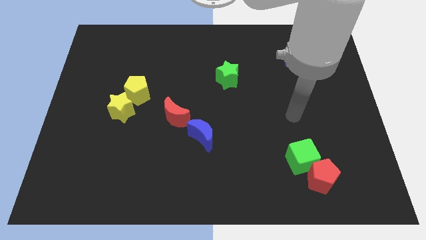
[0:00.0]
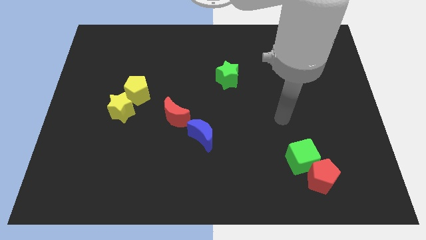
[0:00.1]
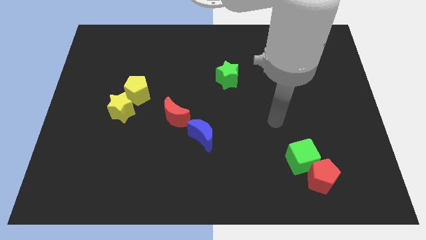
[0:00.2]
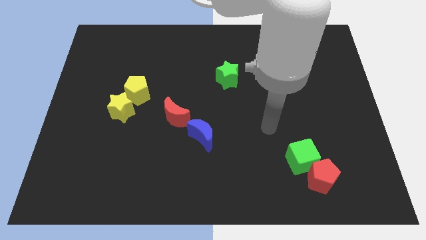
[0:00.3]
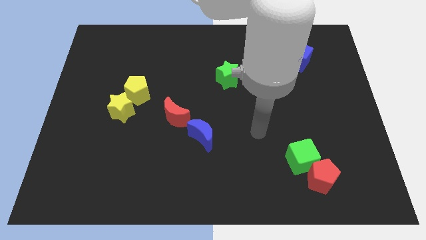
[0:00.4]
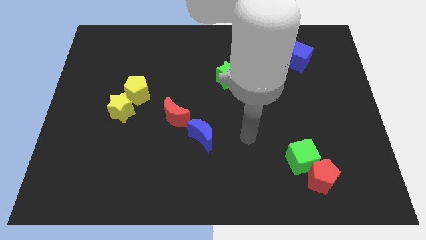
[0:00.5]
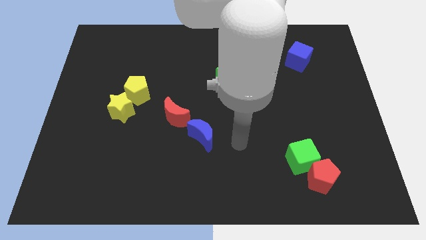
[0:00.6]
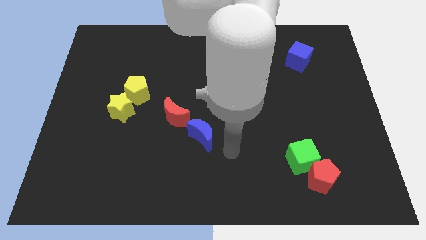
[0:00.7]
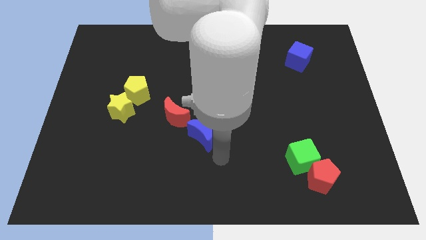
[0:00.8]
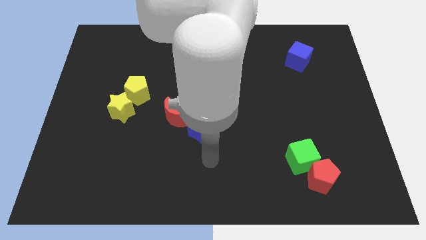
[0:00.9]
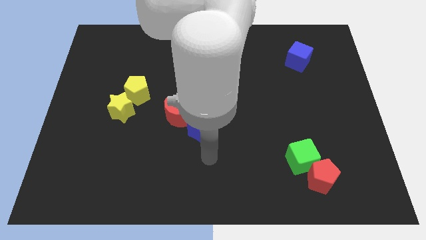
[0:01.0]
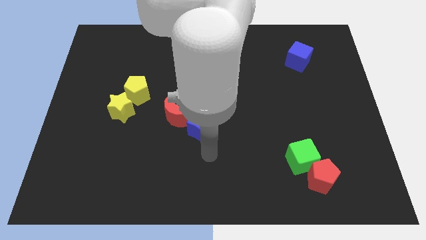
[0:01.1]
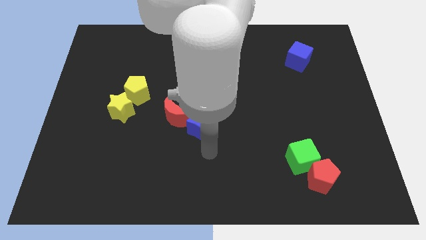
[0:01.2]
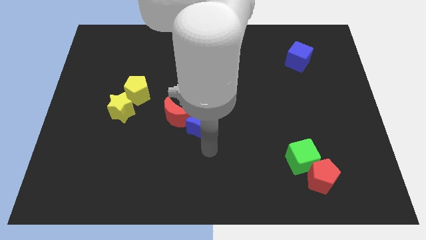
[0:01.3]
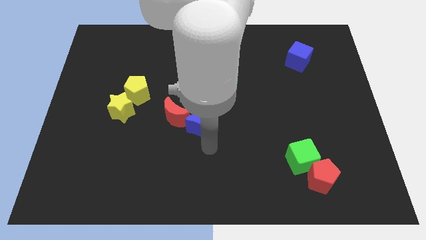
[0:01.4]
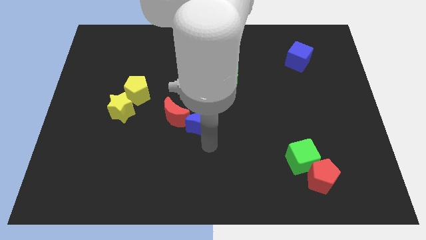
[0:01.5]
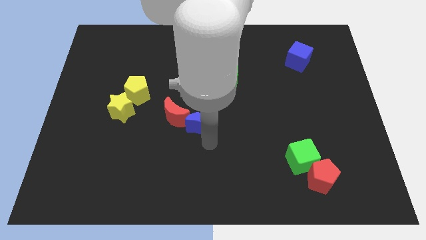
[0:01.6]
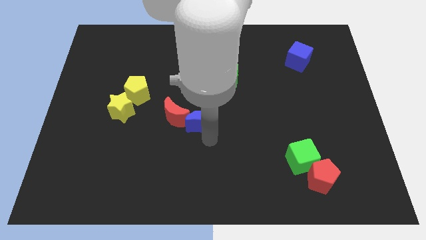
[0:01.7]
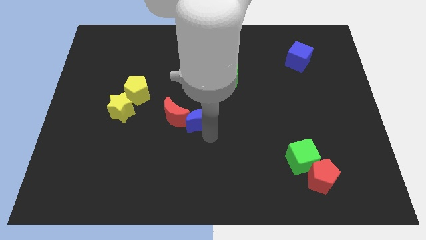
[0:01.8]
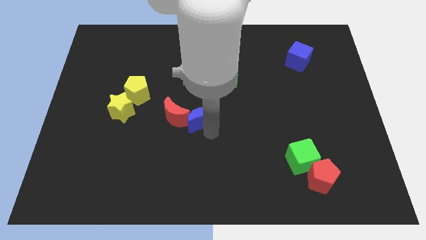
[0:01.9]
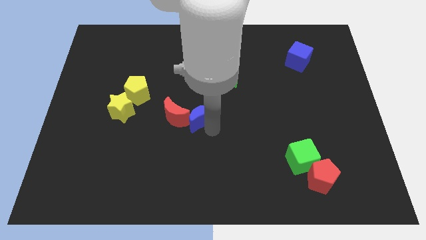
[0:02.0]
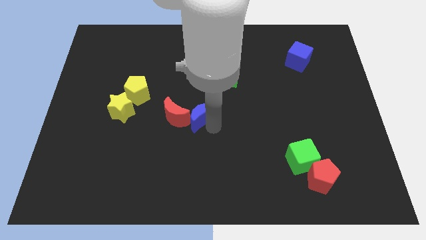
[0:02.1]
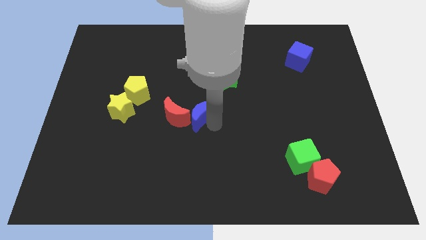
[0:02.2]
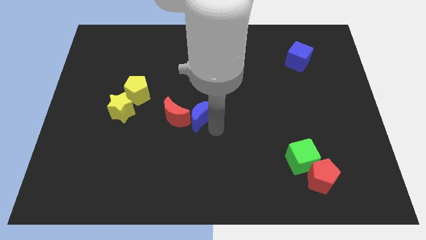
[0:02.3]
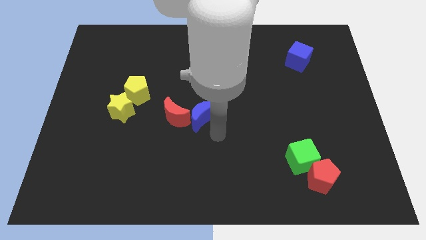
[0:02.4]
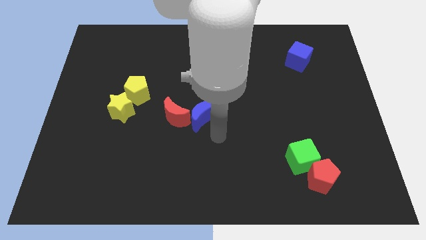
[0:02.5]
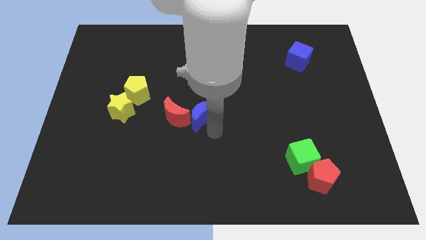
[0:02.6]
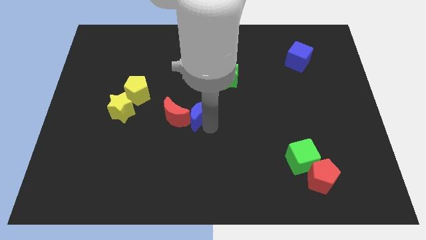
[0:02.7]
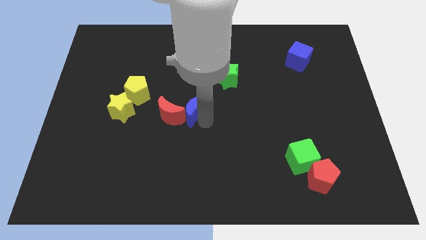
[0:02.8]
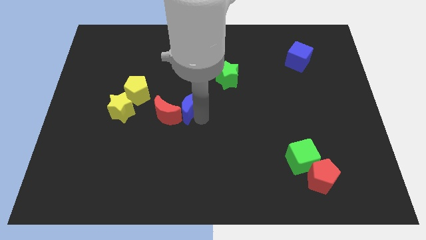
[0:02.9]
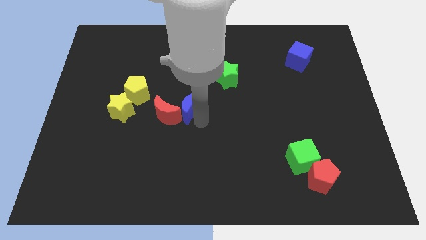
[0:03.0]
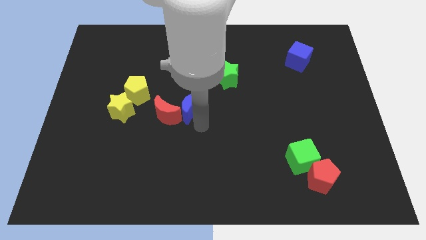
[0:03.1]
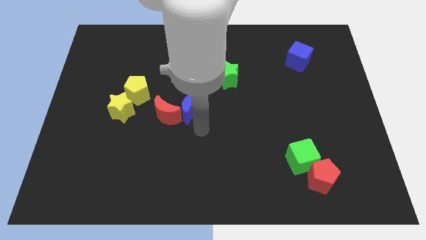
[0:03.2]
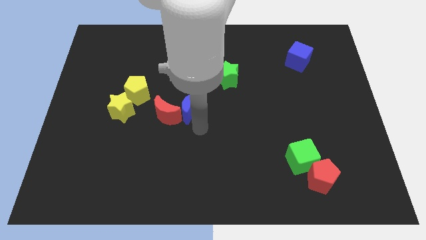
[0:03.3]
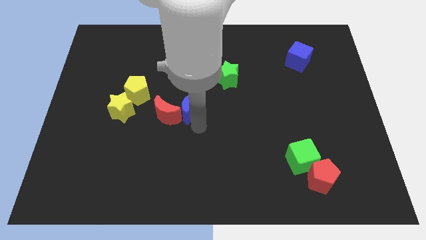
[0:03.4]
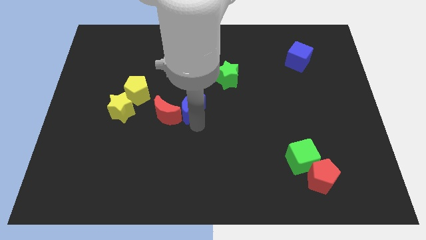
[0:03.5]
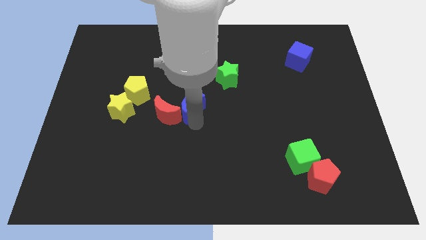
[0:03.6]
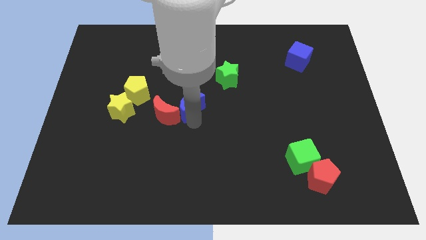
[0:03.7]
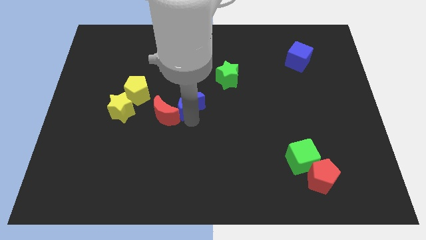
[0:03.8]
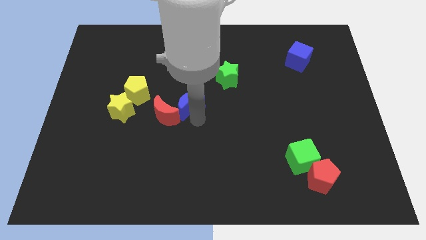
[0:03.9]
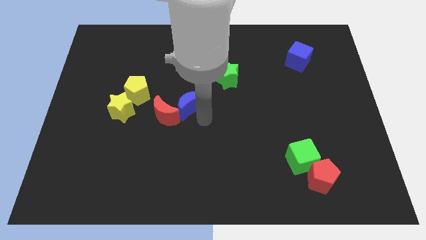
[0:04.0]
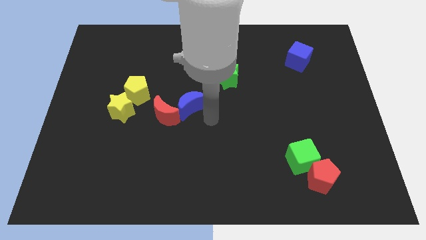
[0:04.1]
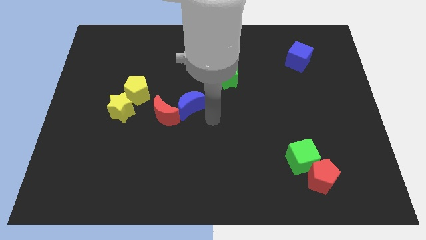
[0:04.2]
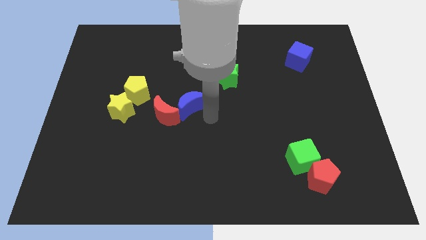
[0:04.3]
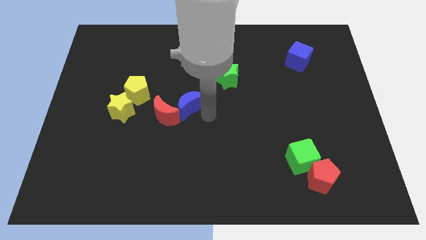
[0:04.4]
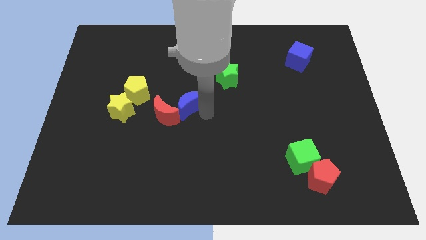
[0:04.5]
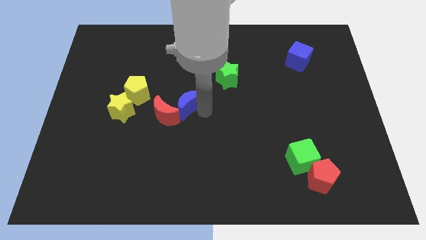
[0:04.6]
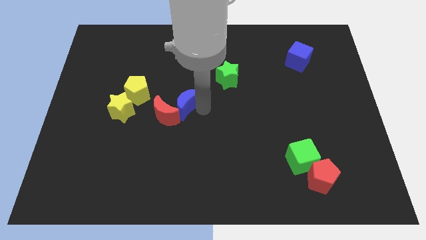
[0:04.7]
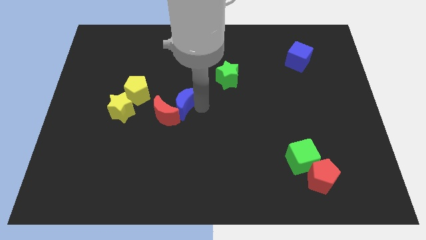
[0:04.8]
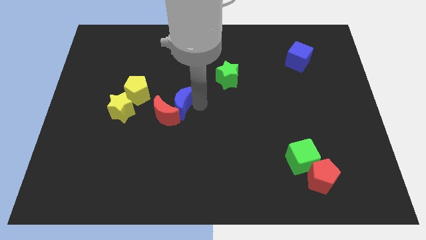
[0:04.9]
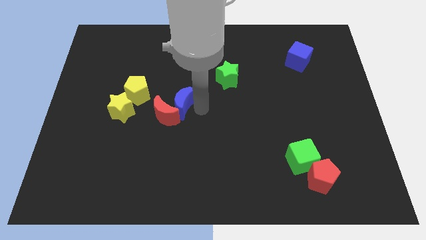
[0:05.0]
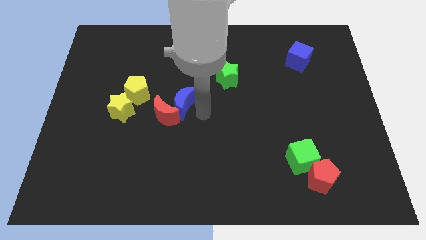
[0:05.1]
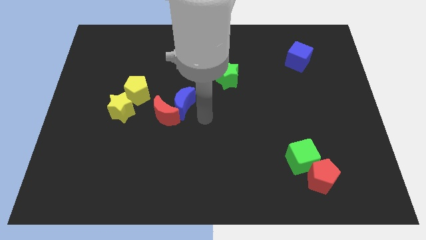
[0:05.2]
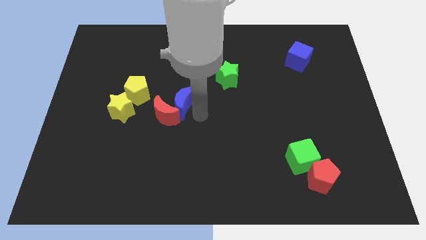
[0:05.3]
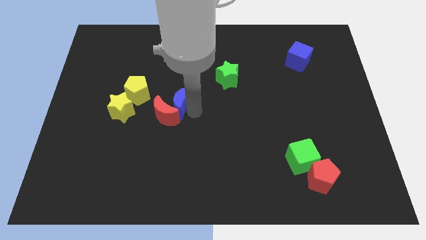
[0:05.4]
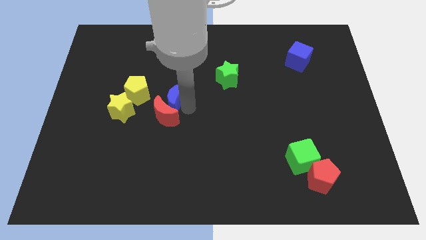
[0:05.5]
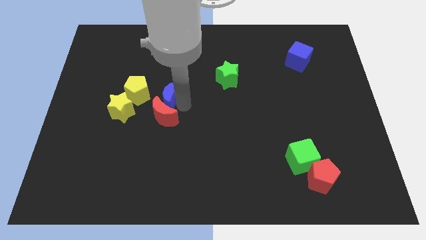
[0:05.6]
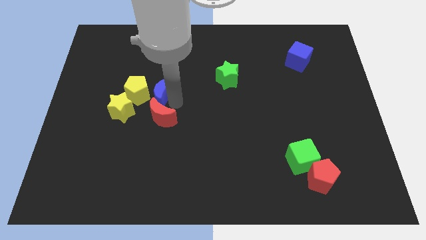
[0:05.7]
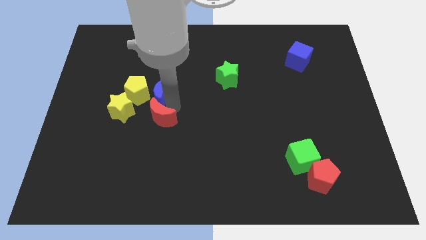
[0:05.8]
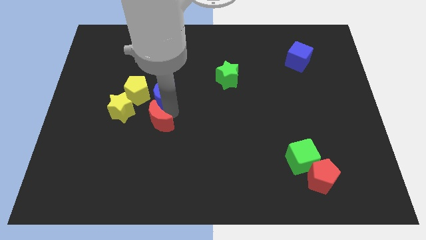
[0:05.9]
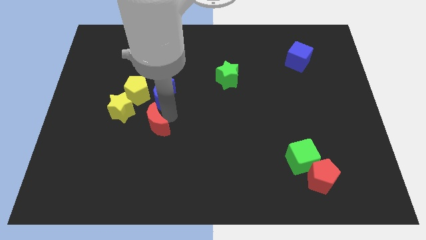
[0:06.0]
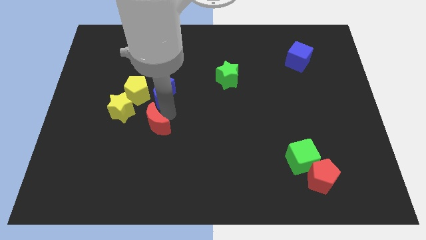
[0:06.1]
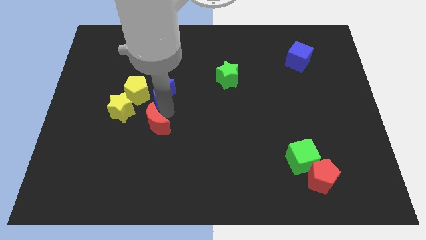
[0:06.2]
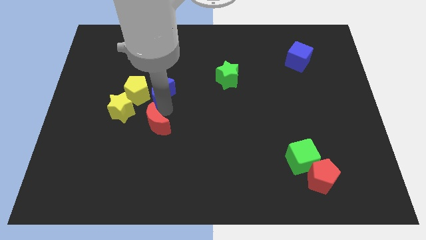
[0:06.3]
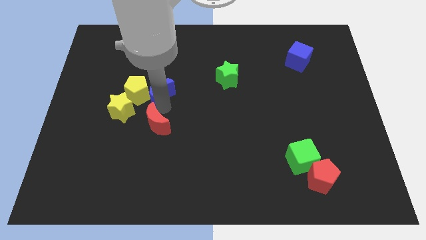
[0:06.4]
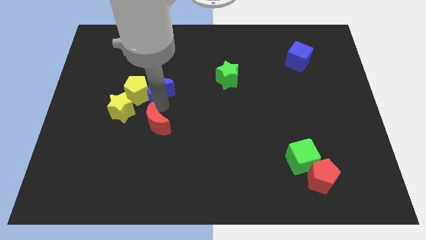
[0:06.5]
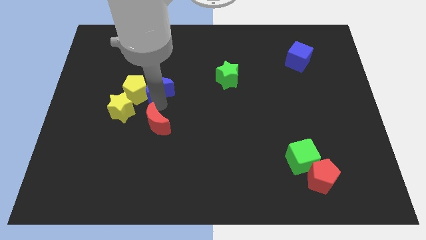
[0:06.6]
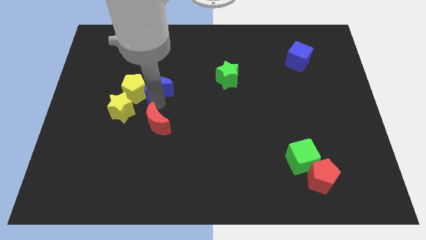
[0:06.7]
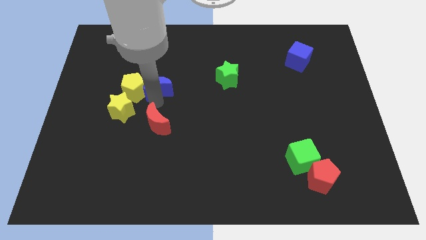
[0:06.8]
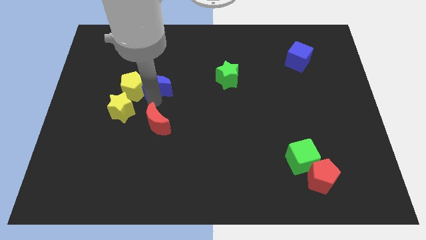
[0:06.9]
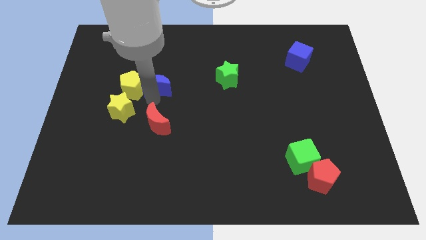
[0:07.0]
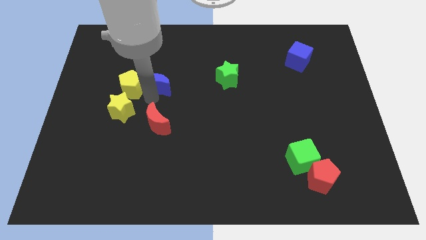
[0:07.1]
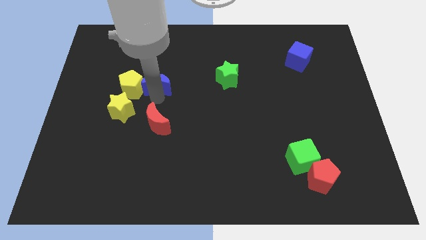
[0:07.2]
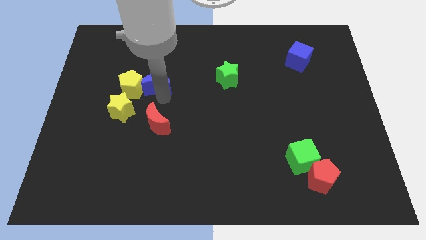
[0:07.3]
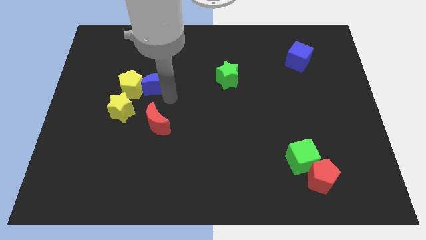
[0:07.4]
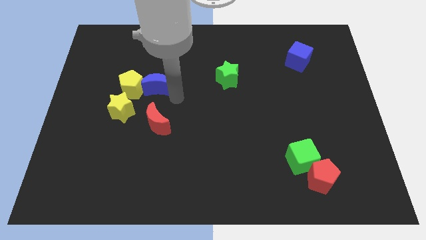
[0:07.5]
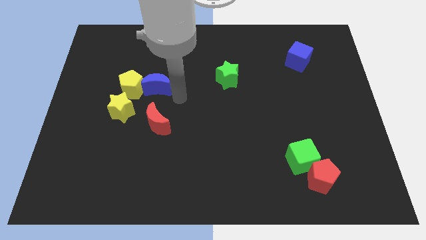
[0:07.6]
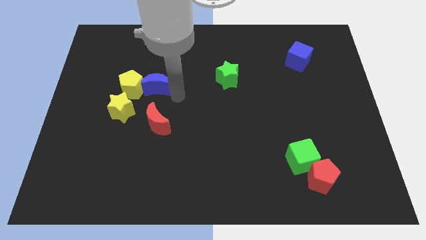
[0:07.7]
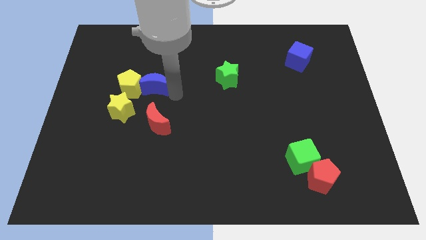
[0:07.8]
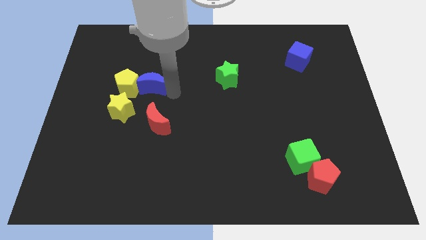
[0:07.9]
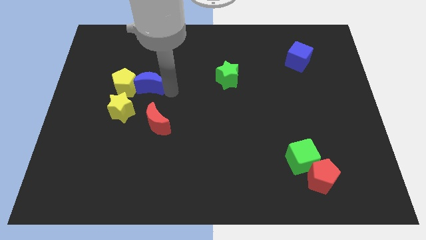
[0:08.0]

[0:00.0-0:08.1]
slide the blue moon up and then to the left

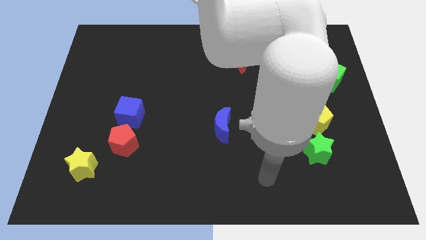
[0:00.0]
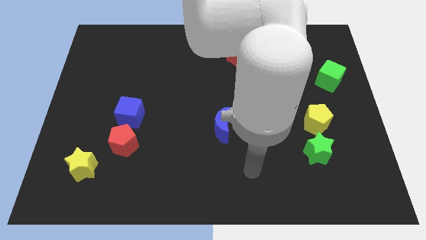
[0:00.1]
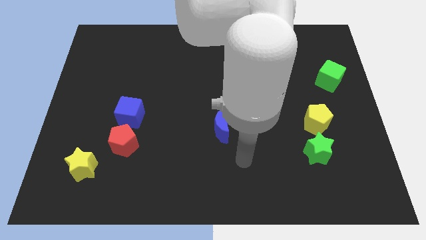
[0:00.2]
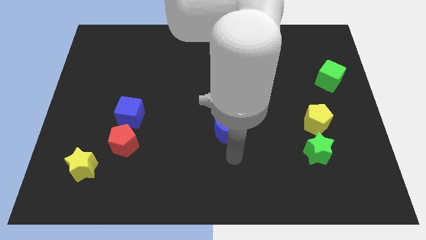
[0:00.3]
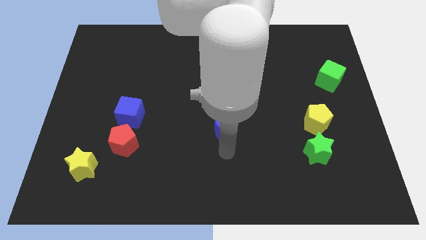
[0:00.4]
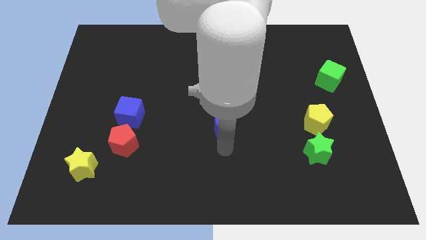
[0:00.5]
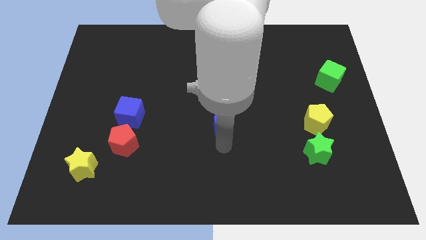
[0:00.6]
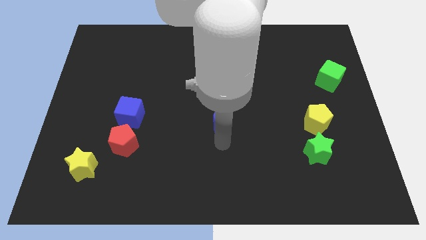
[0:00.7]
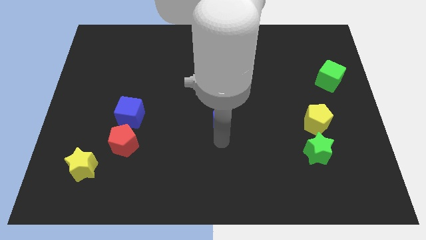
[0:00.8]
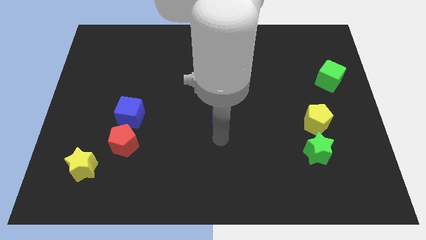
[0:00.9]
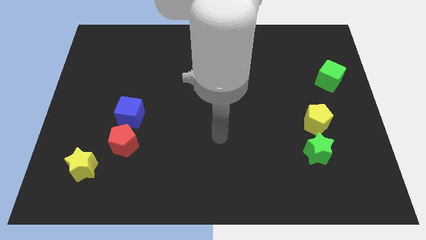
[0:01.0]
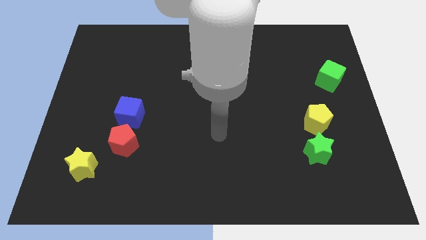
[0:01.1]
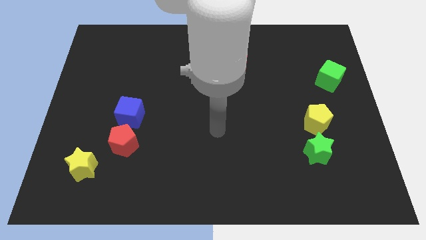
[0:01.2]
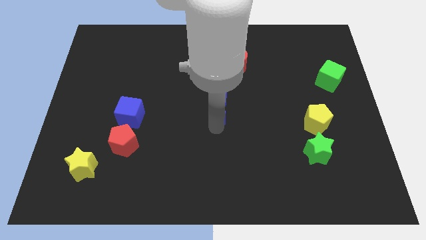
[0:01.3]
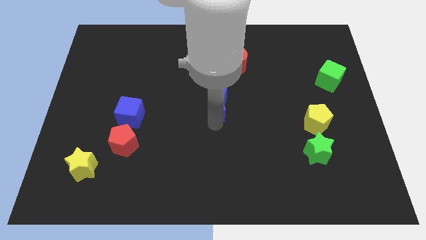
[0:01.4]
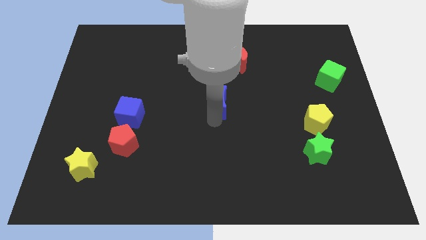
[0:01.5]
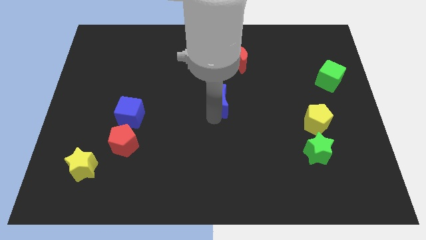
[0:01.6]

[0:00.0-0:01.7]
slide the blue moon a little bit up
